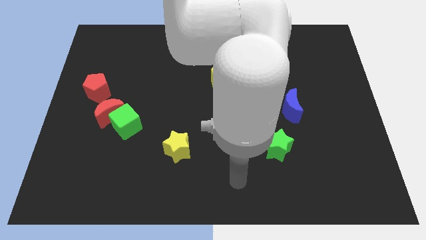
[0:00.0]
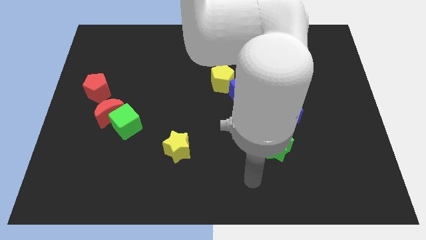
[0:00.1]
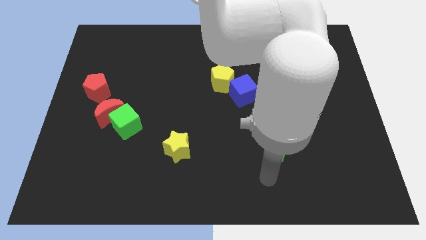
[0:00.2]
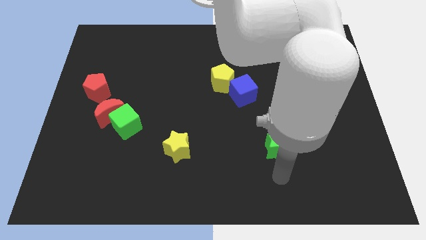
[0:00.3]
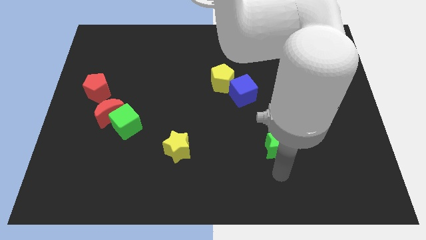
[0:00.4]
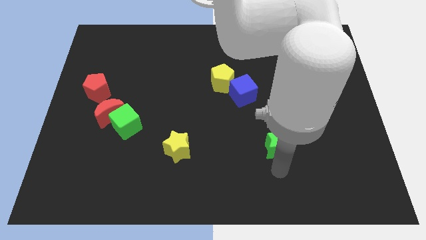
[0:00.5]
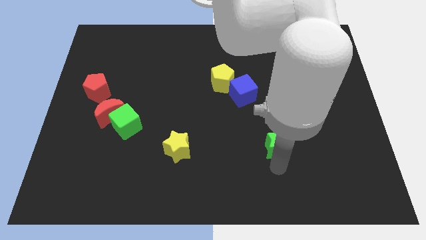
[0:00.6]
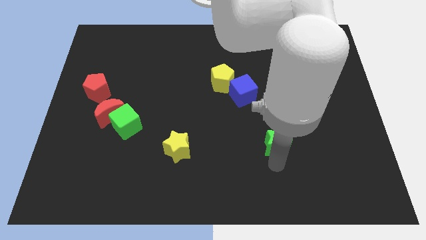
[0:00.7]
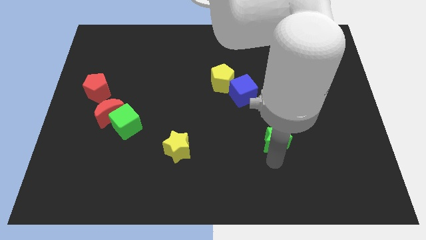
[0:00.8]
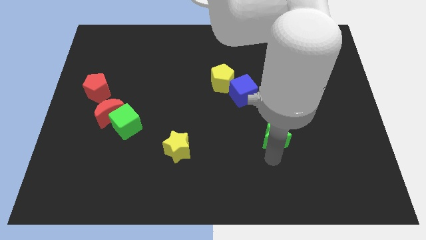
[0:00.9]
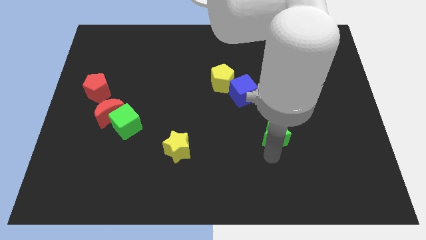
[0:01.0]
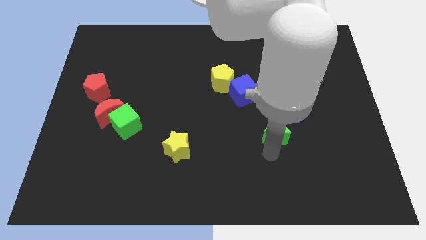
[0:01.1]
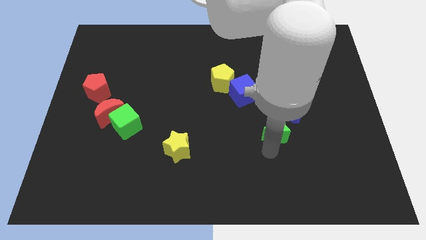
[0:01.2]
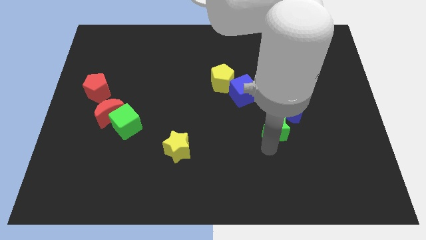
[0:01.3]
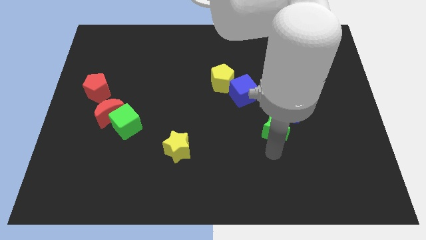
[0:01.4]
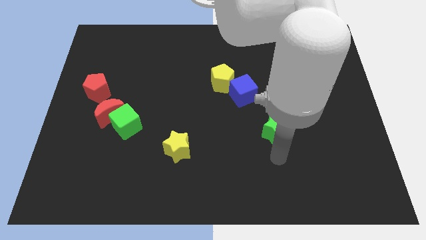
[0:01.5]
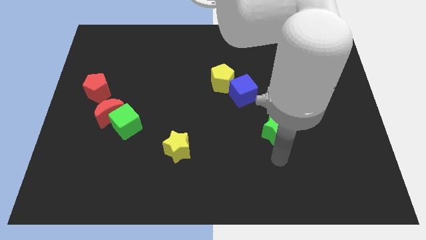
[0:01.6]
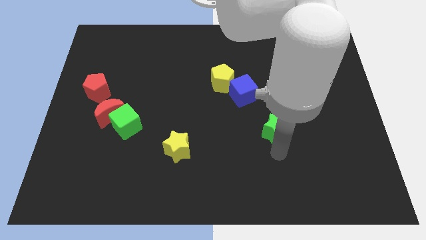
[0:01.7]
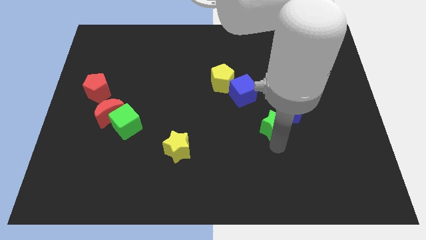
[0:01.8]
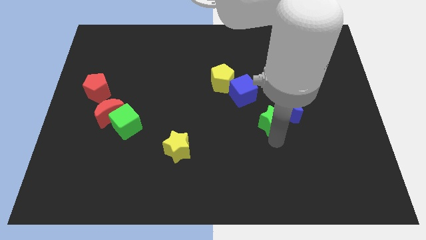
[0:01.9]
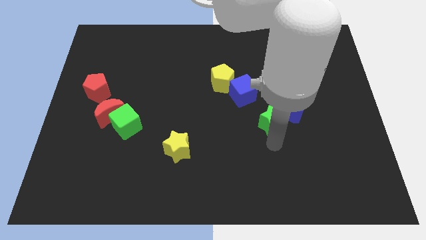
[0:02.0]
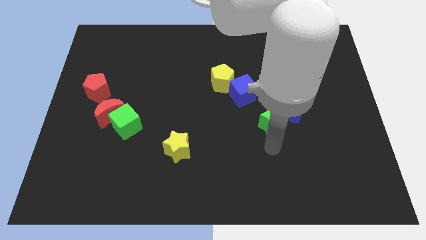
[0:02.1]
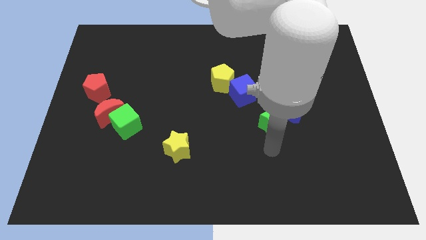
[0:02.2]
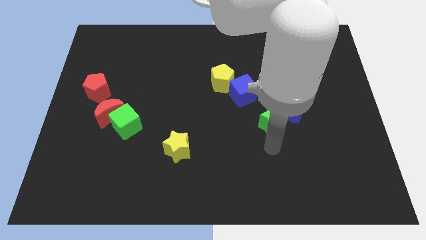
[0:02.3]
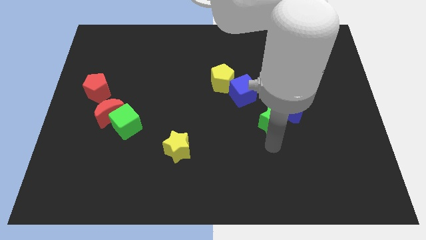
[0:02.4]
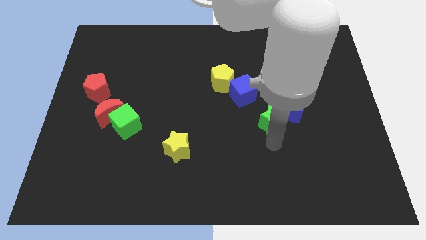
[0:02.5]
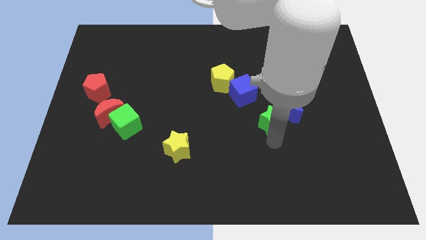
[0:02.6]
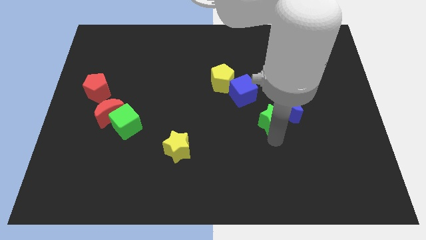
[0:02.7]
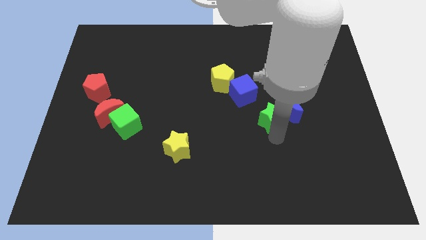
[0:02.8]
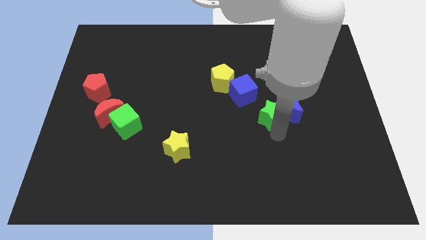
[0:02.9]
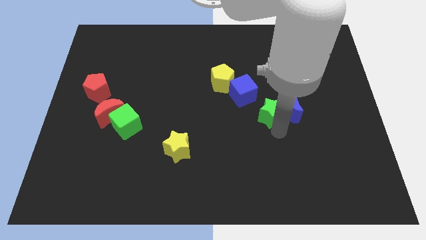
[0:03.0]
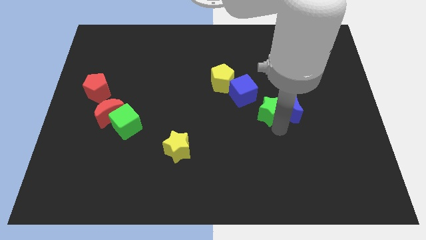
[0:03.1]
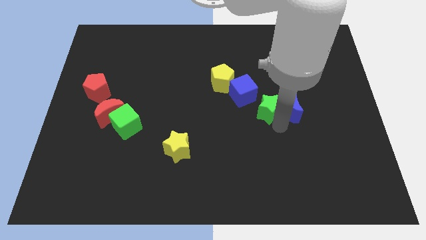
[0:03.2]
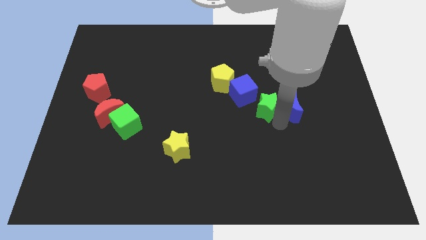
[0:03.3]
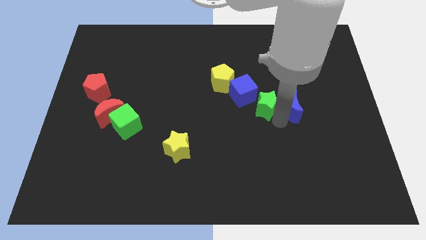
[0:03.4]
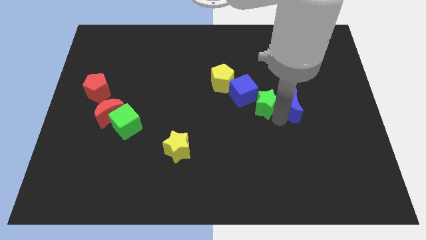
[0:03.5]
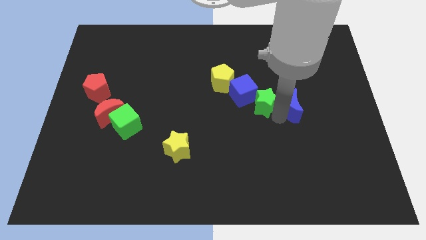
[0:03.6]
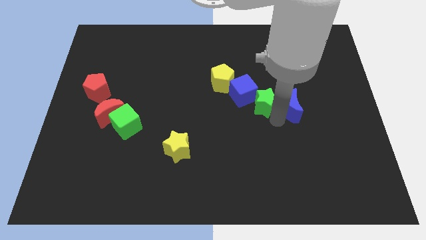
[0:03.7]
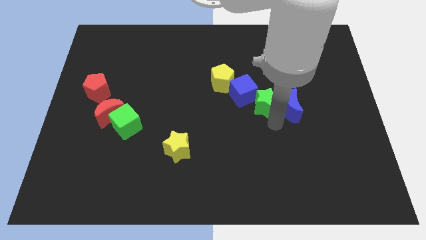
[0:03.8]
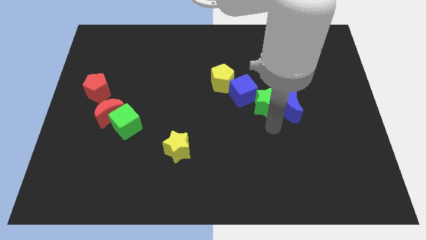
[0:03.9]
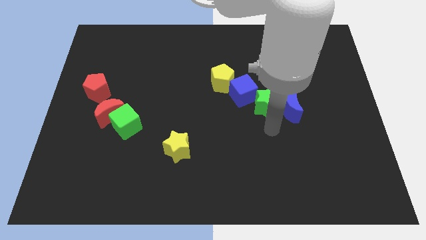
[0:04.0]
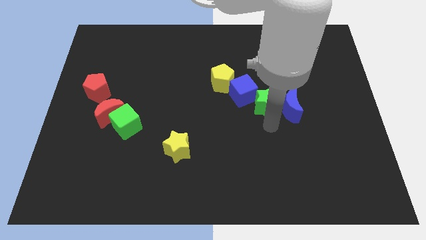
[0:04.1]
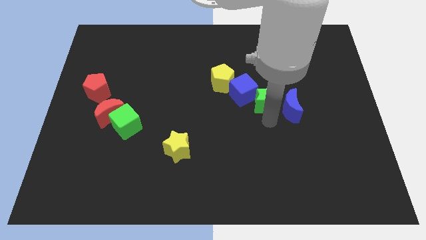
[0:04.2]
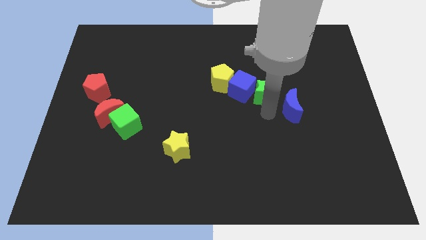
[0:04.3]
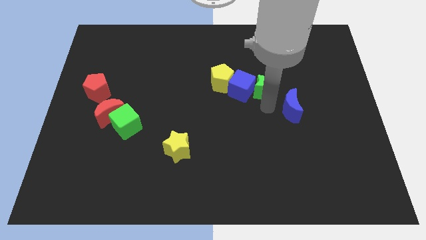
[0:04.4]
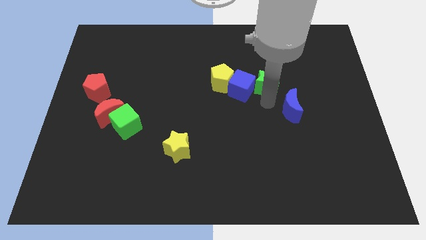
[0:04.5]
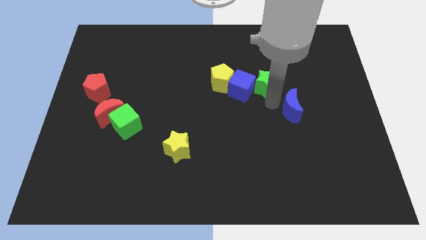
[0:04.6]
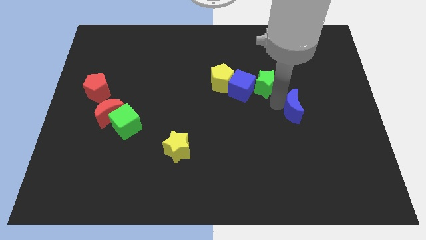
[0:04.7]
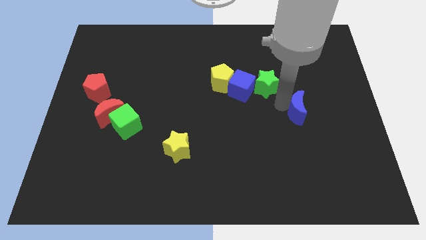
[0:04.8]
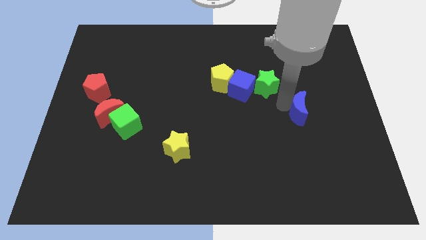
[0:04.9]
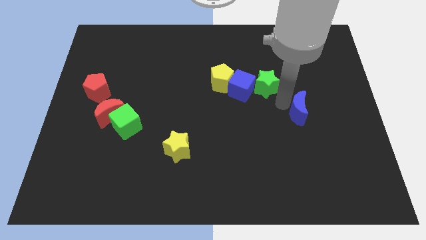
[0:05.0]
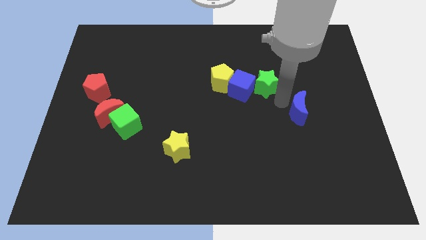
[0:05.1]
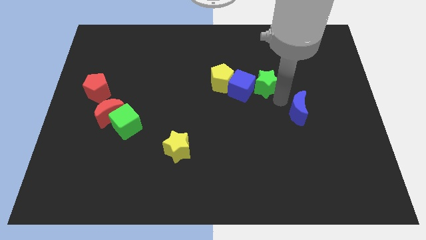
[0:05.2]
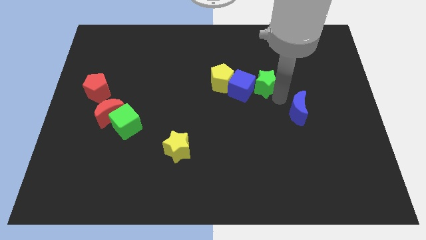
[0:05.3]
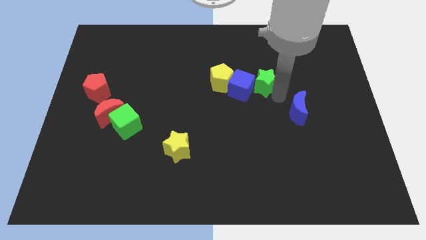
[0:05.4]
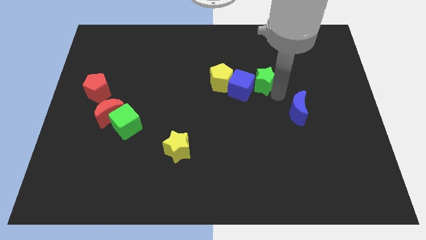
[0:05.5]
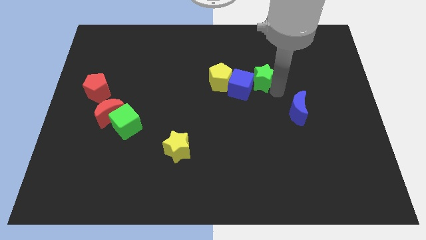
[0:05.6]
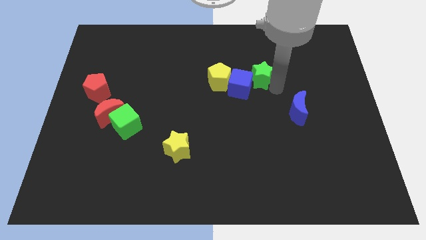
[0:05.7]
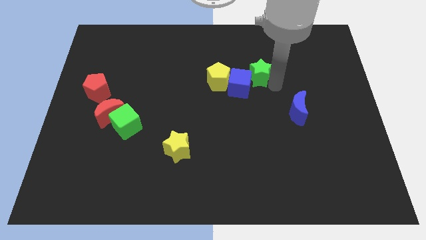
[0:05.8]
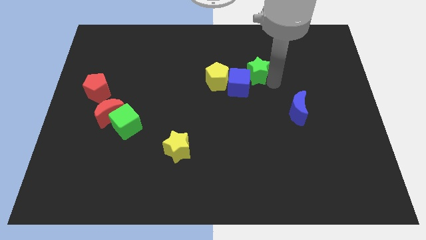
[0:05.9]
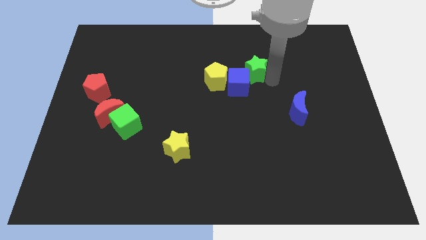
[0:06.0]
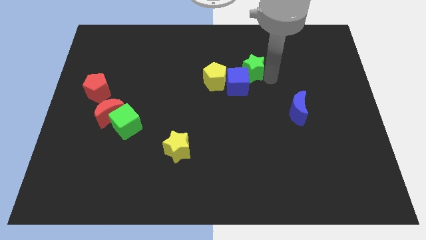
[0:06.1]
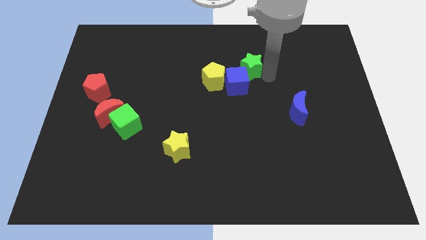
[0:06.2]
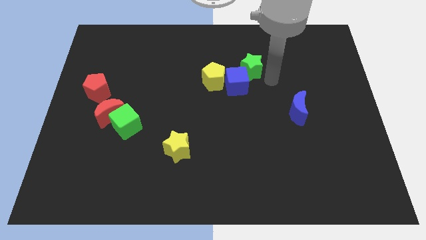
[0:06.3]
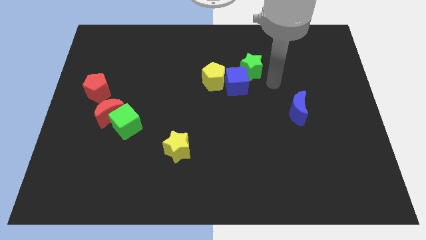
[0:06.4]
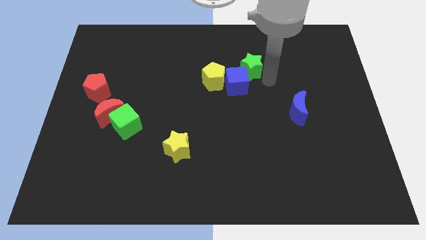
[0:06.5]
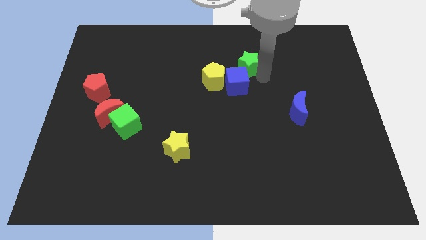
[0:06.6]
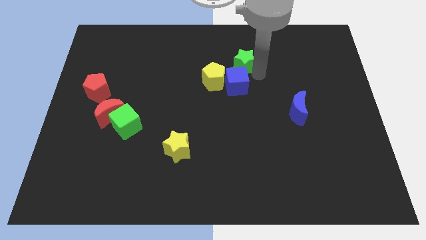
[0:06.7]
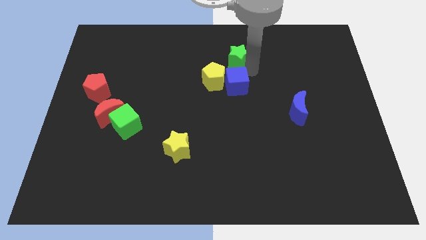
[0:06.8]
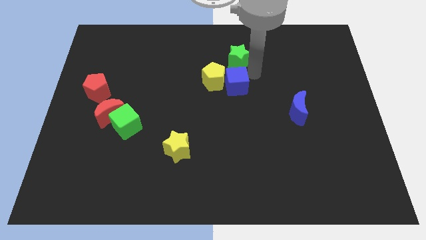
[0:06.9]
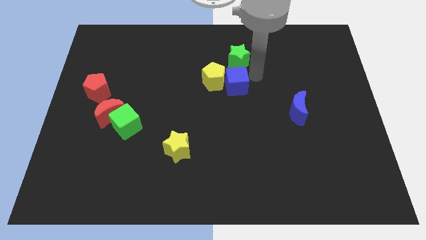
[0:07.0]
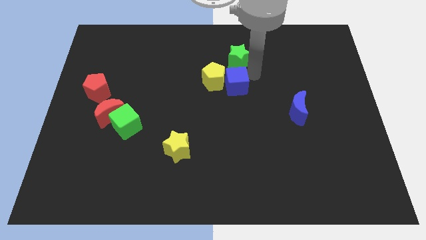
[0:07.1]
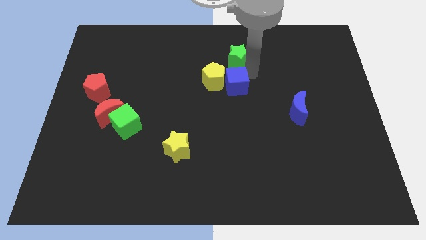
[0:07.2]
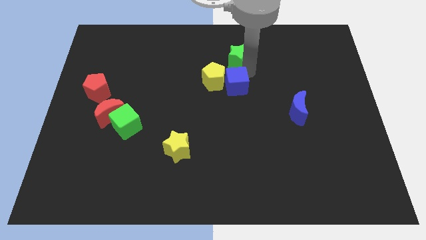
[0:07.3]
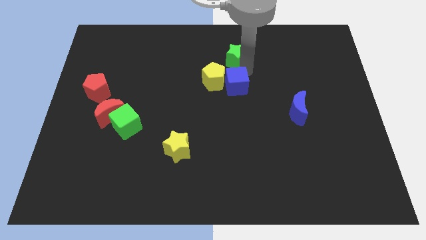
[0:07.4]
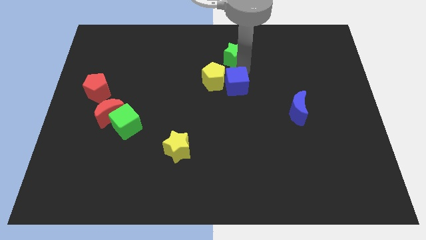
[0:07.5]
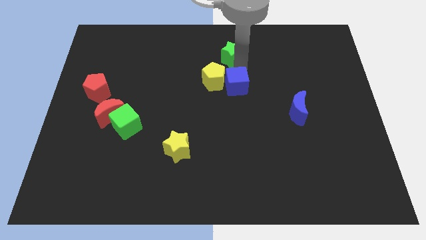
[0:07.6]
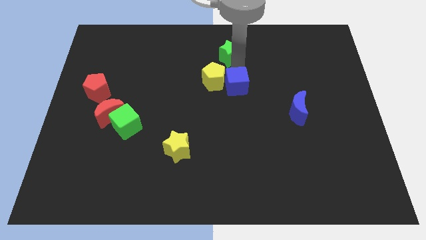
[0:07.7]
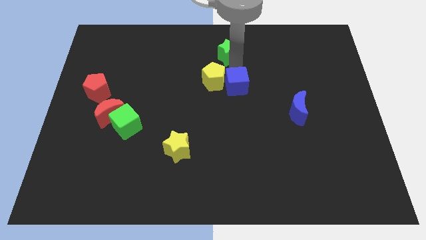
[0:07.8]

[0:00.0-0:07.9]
put the green star to the towards your base
